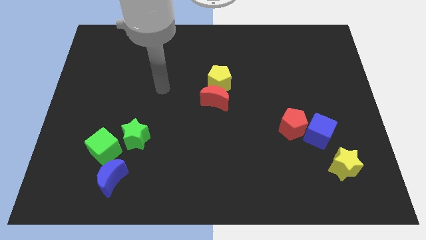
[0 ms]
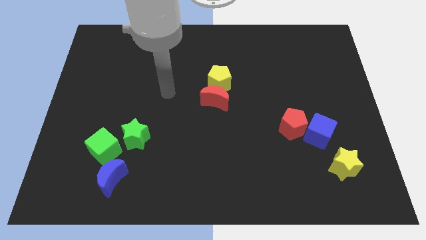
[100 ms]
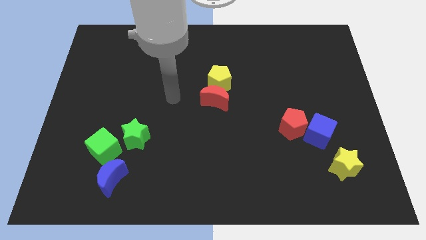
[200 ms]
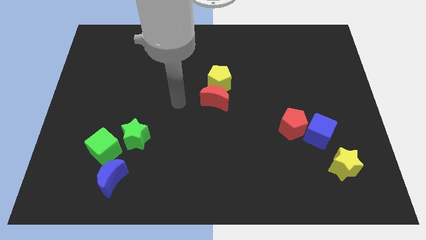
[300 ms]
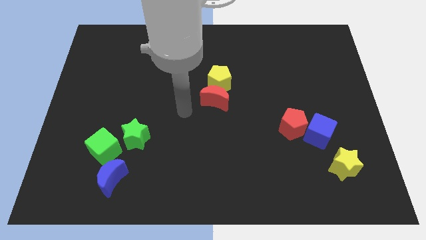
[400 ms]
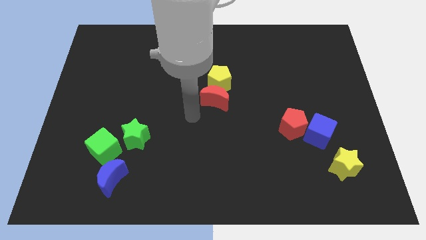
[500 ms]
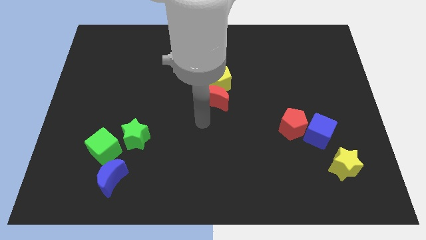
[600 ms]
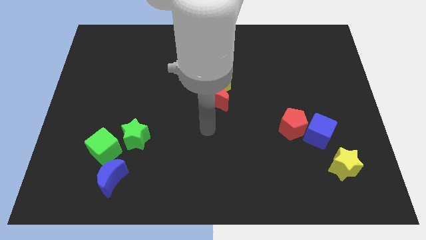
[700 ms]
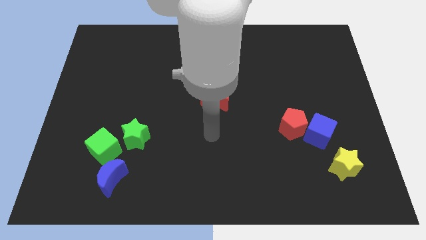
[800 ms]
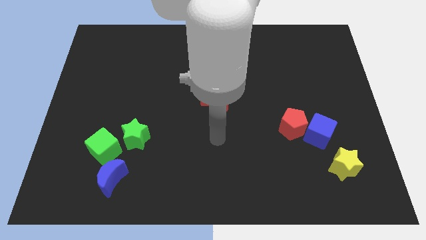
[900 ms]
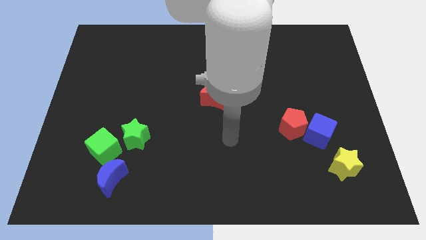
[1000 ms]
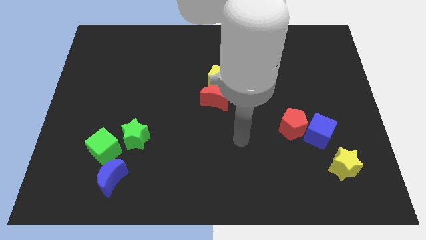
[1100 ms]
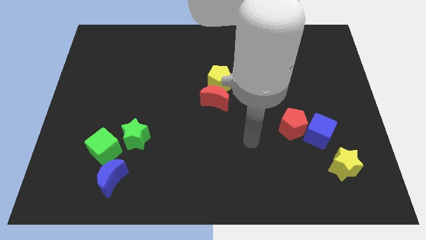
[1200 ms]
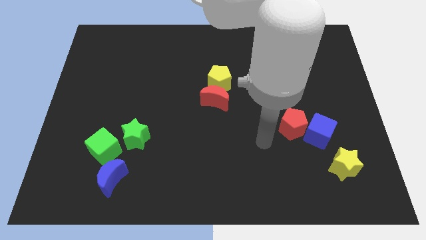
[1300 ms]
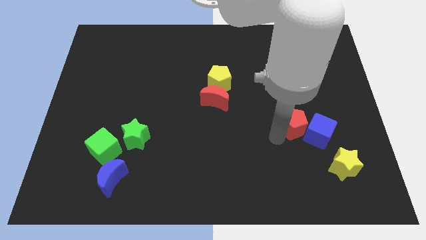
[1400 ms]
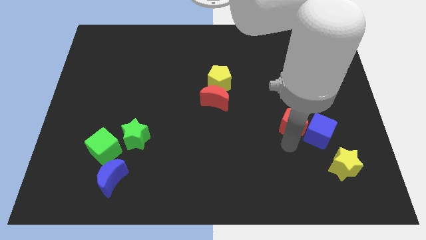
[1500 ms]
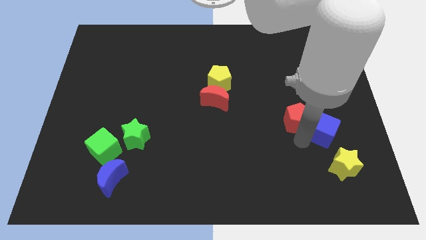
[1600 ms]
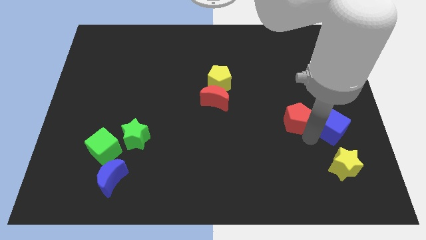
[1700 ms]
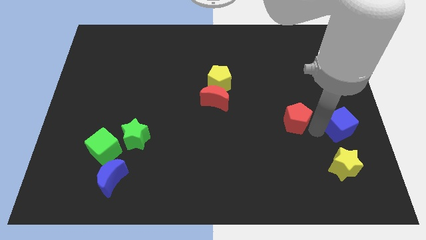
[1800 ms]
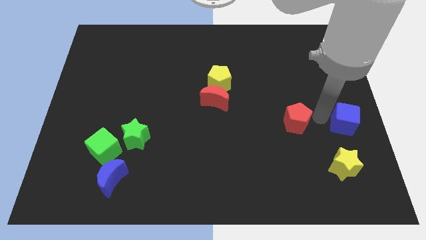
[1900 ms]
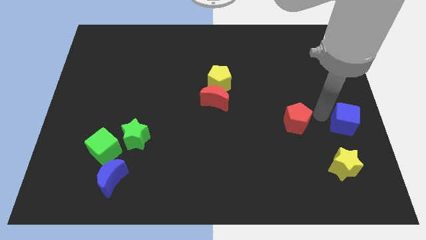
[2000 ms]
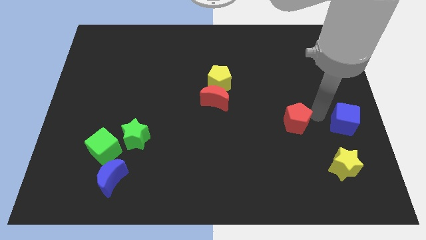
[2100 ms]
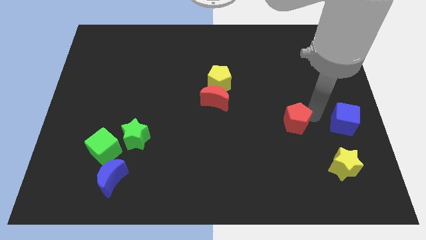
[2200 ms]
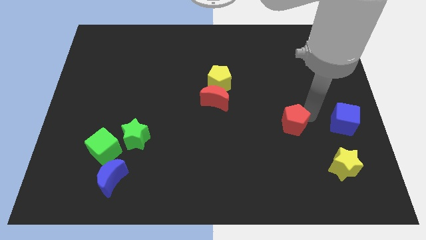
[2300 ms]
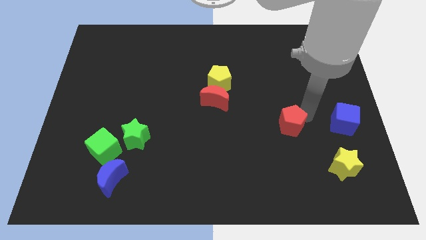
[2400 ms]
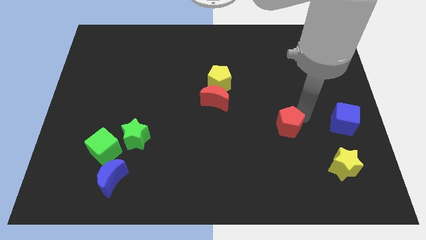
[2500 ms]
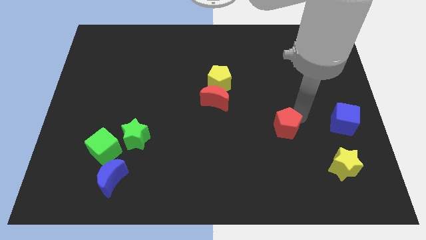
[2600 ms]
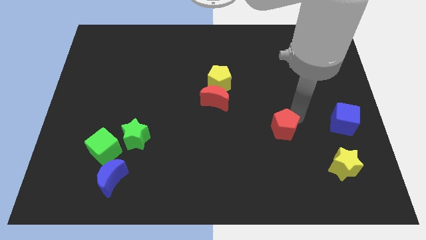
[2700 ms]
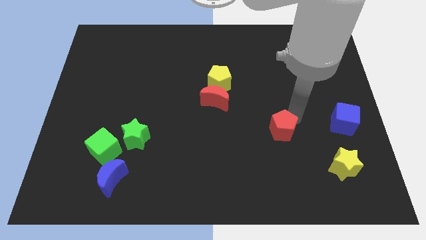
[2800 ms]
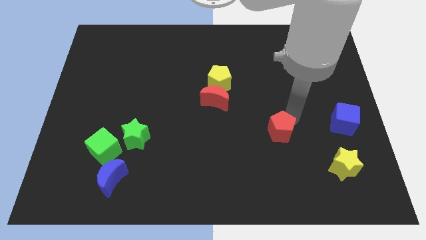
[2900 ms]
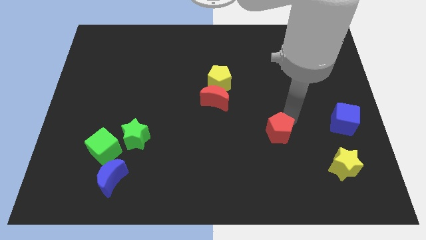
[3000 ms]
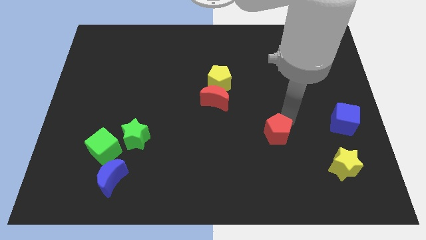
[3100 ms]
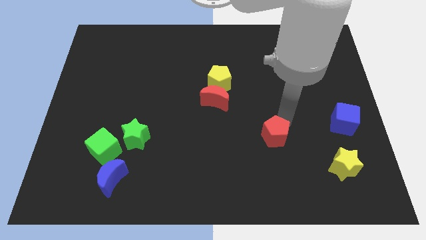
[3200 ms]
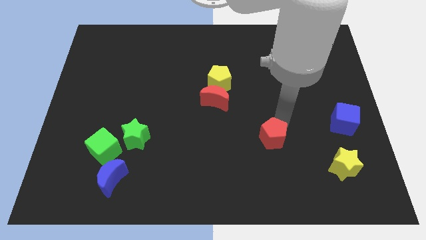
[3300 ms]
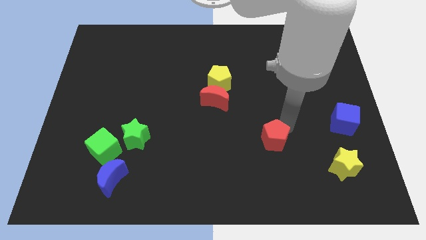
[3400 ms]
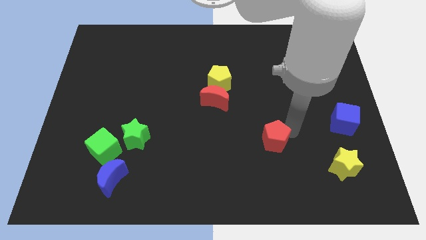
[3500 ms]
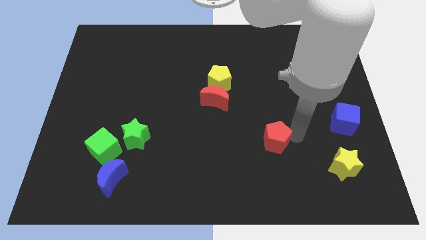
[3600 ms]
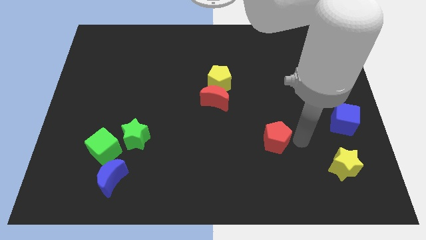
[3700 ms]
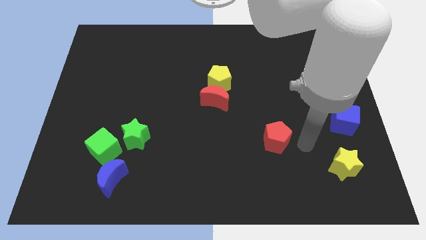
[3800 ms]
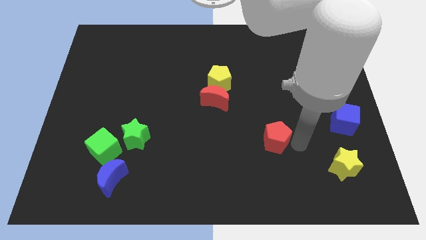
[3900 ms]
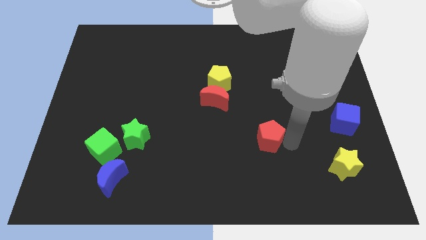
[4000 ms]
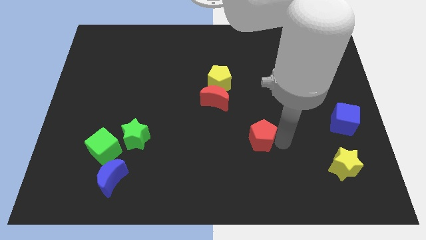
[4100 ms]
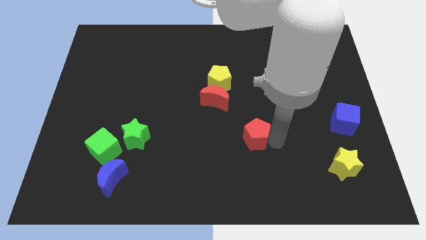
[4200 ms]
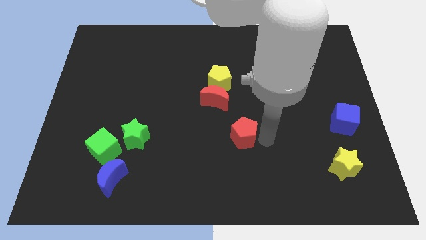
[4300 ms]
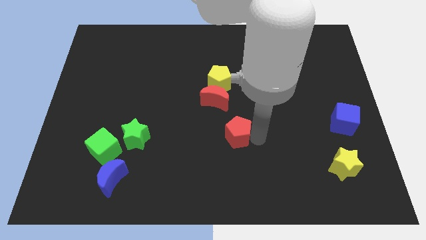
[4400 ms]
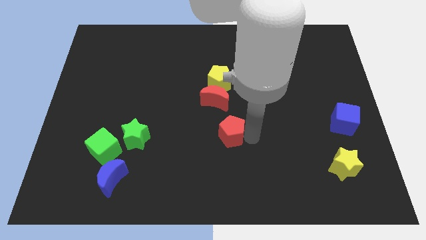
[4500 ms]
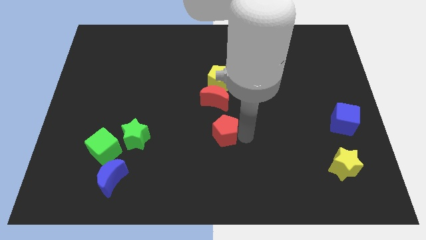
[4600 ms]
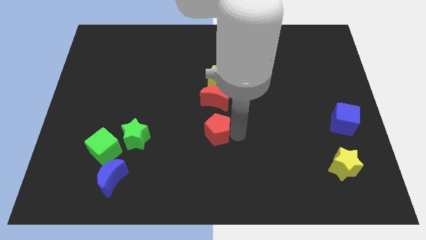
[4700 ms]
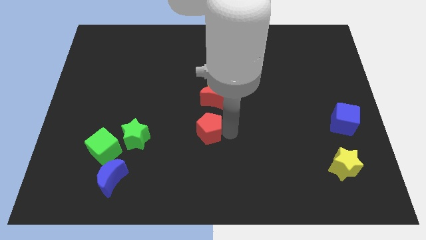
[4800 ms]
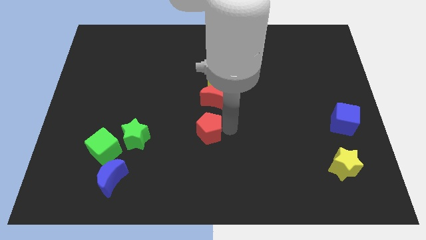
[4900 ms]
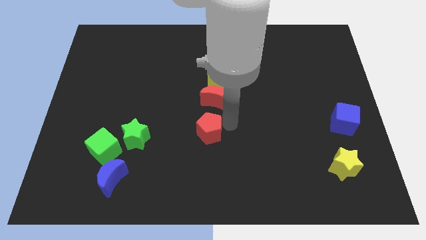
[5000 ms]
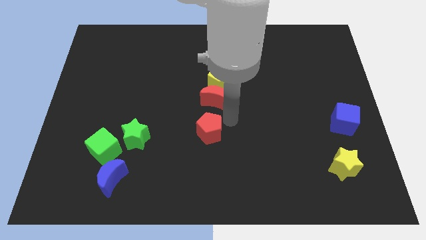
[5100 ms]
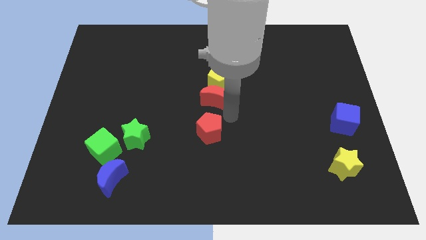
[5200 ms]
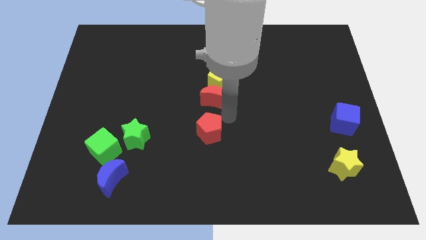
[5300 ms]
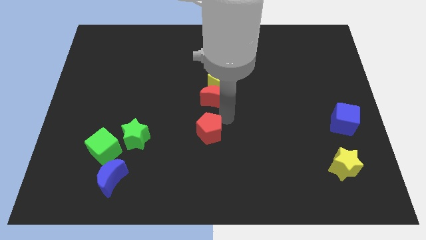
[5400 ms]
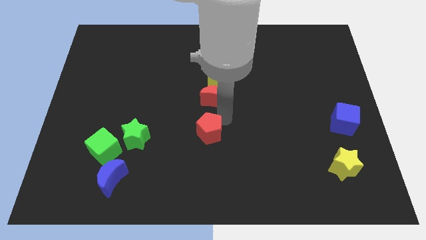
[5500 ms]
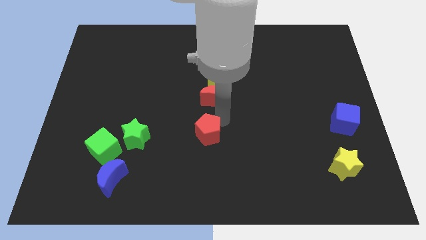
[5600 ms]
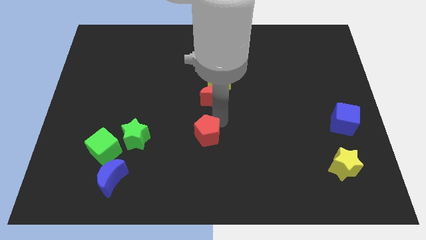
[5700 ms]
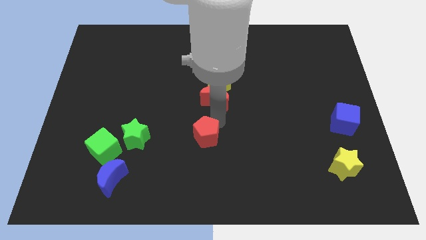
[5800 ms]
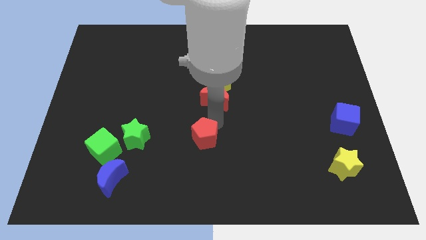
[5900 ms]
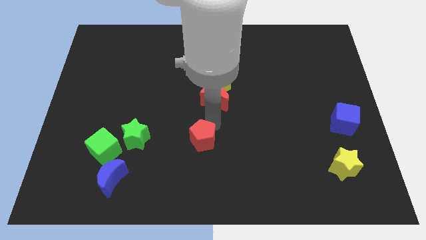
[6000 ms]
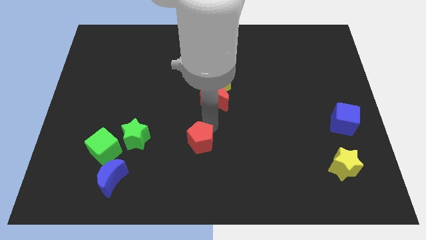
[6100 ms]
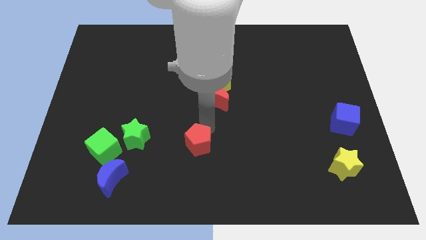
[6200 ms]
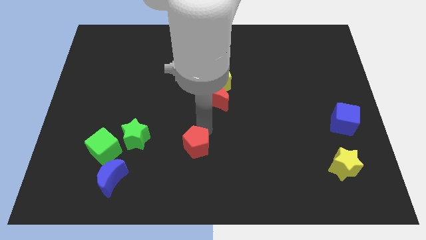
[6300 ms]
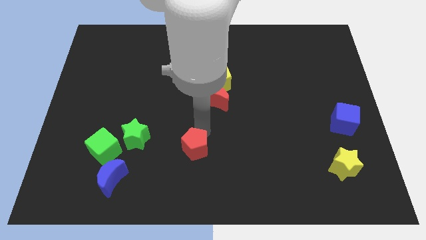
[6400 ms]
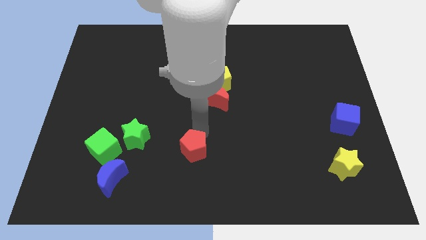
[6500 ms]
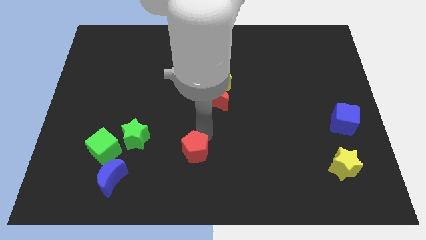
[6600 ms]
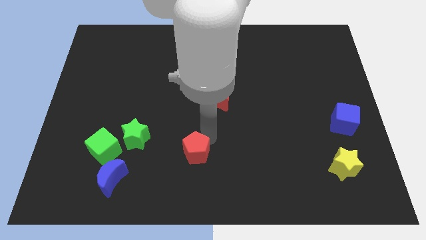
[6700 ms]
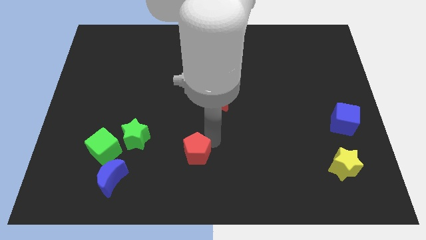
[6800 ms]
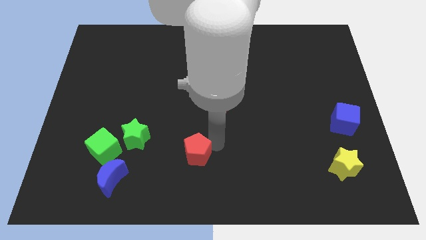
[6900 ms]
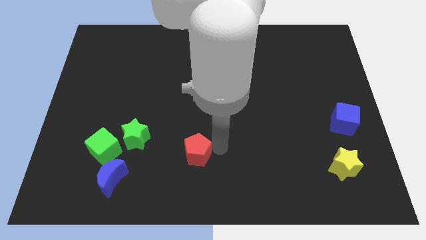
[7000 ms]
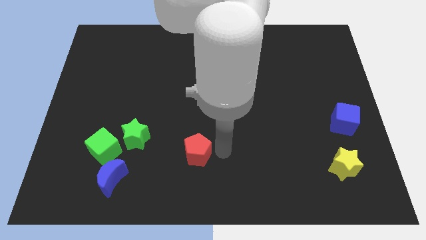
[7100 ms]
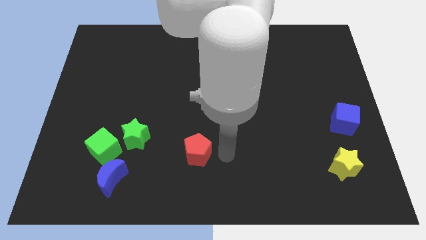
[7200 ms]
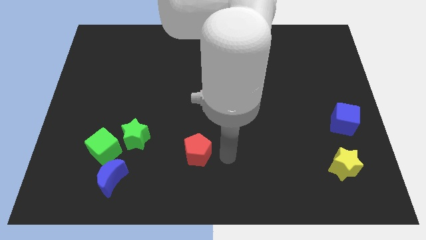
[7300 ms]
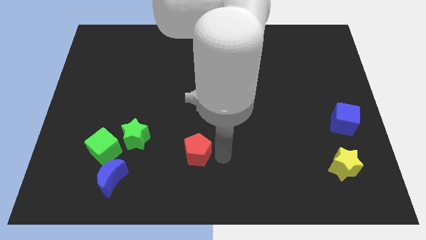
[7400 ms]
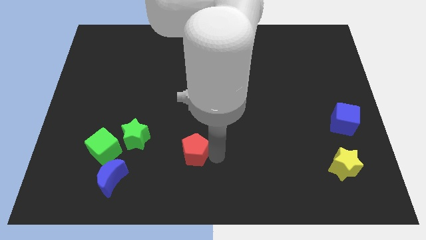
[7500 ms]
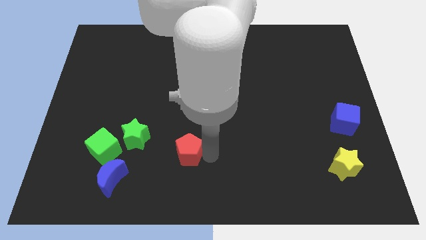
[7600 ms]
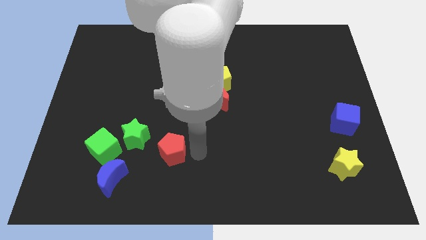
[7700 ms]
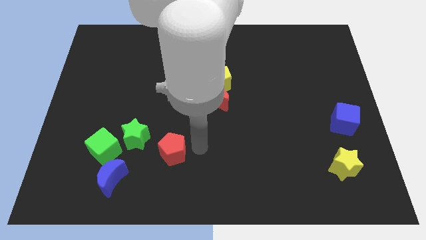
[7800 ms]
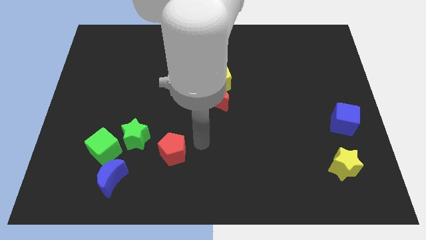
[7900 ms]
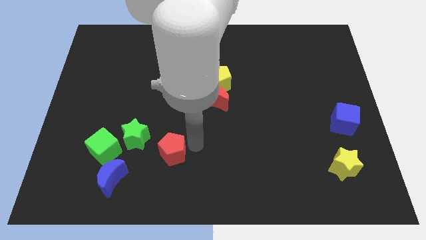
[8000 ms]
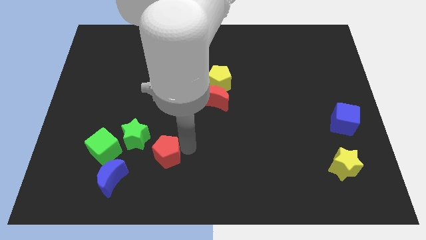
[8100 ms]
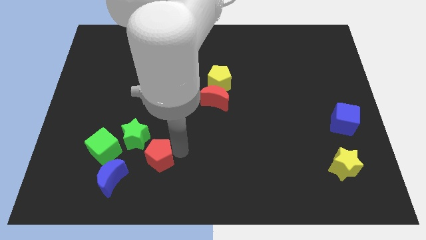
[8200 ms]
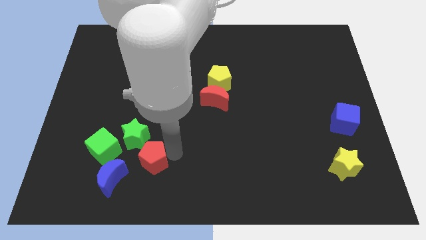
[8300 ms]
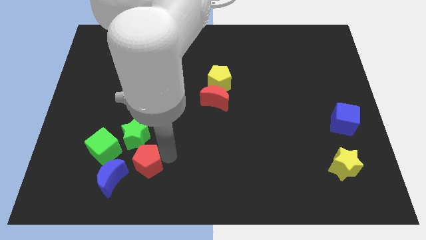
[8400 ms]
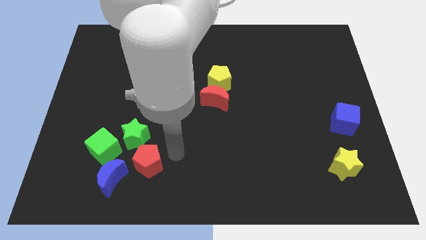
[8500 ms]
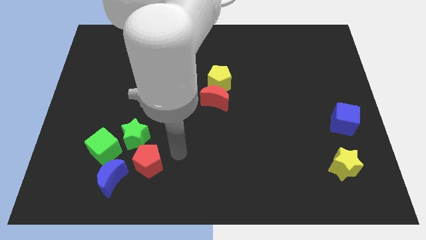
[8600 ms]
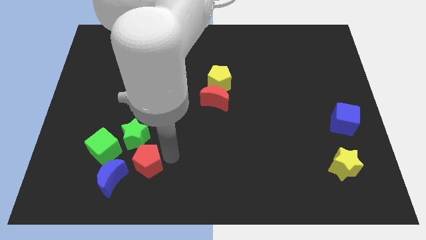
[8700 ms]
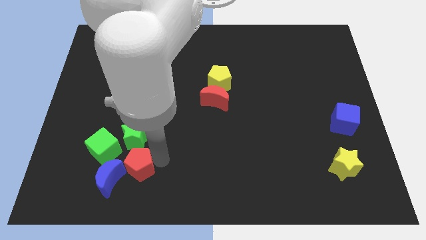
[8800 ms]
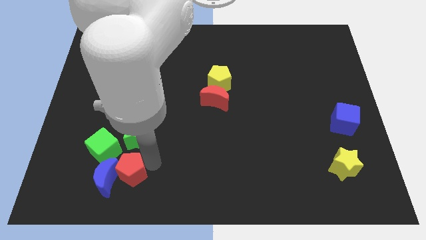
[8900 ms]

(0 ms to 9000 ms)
put the red pentagon towards the blue moon
